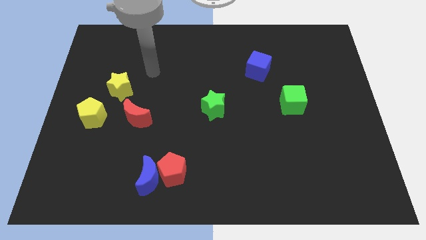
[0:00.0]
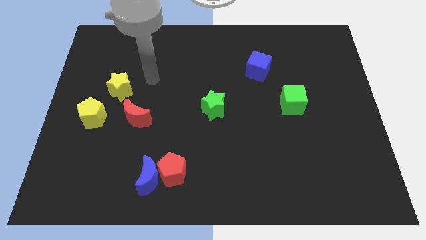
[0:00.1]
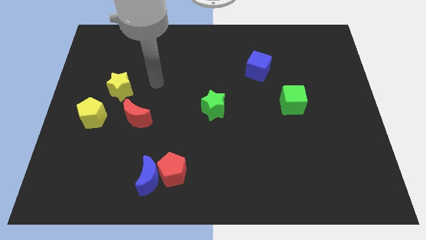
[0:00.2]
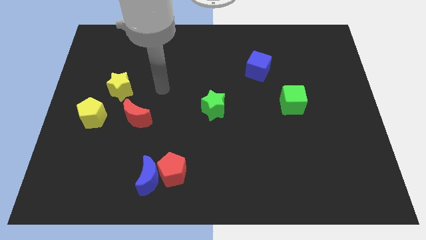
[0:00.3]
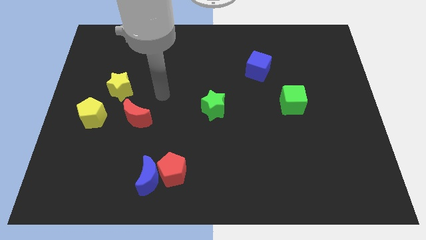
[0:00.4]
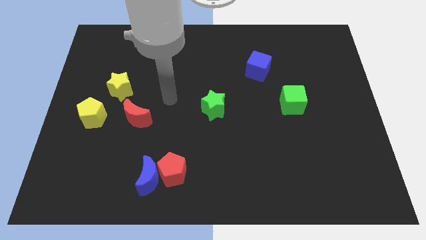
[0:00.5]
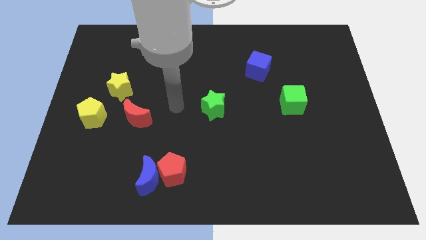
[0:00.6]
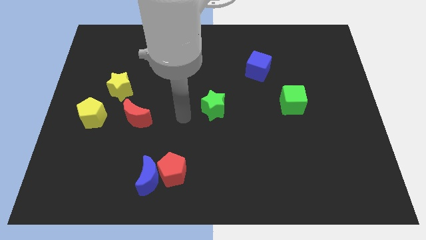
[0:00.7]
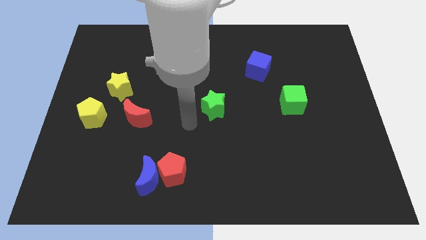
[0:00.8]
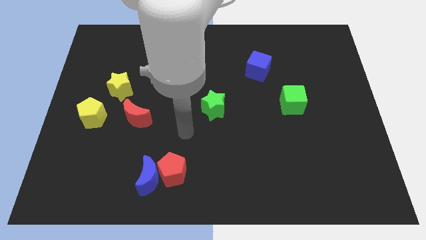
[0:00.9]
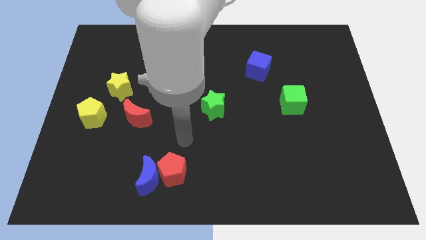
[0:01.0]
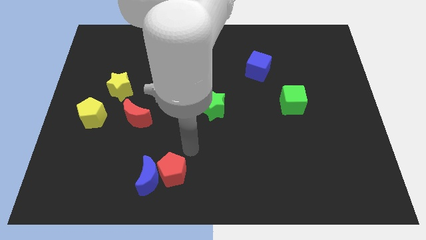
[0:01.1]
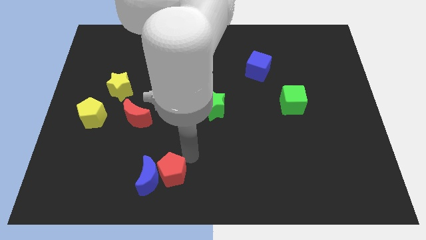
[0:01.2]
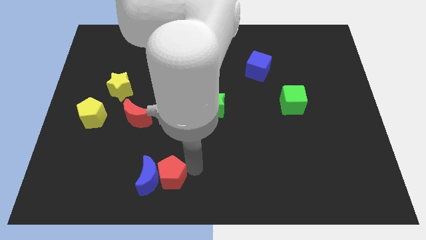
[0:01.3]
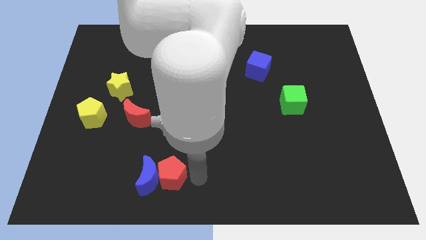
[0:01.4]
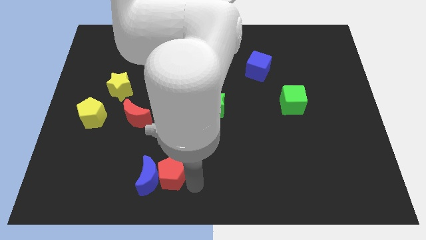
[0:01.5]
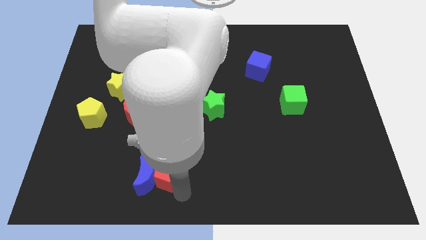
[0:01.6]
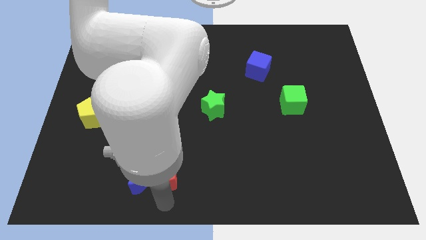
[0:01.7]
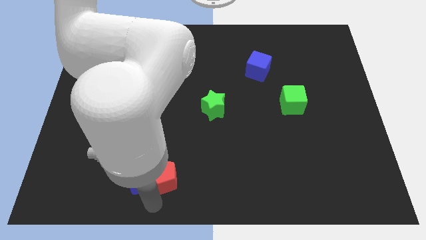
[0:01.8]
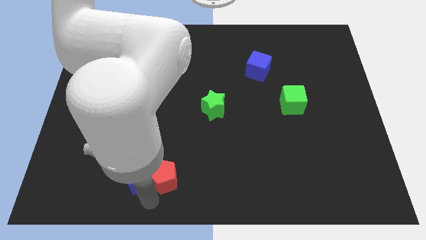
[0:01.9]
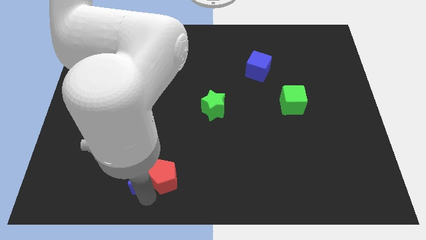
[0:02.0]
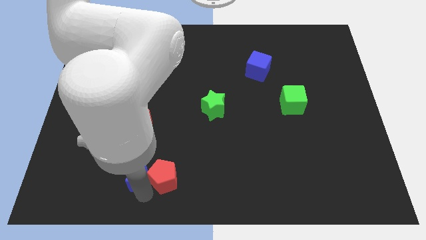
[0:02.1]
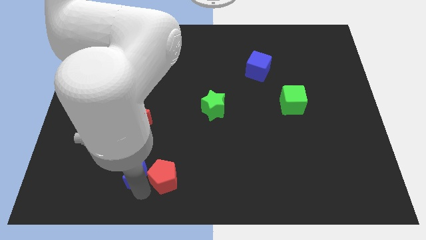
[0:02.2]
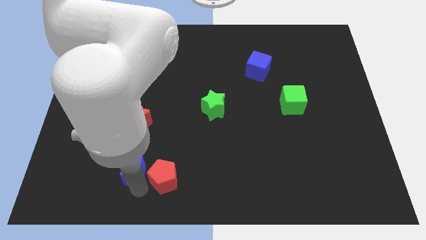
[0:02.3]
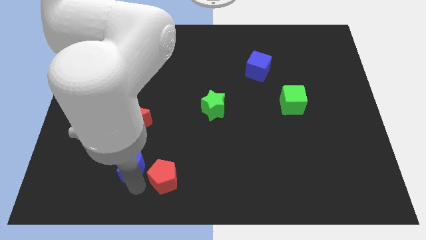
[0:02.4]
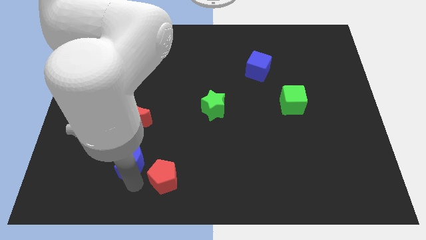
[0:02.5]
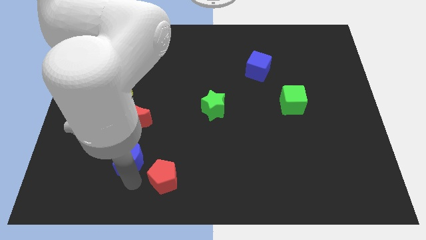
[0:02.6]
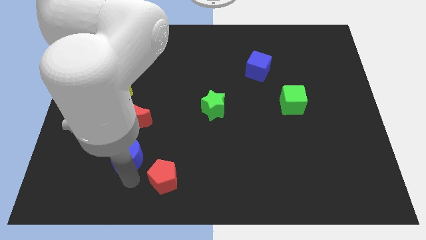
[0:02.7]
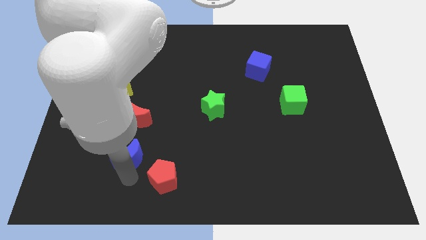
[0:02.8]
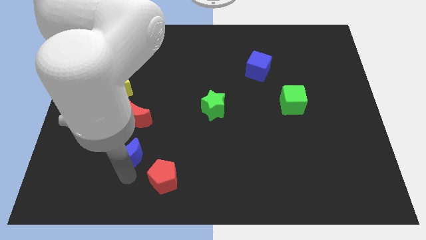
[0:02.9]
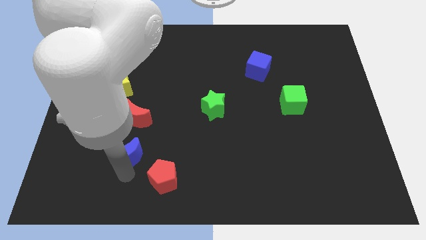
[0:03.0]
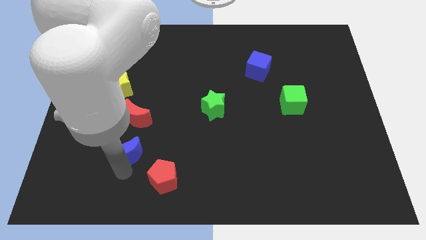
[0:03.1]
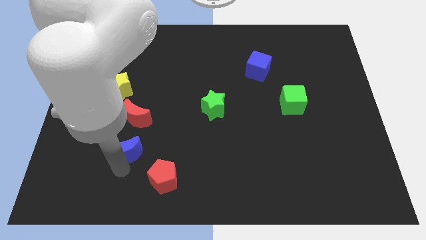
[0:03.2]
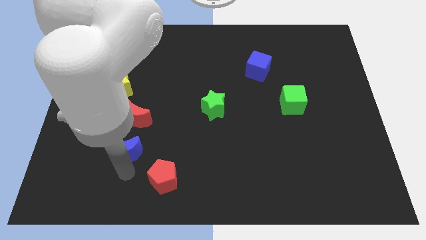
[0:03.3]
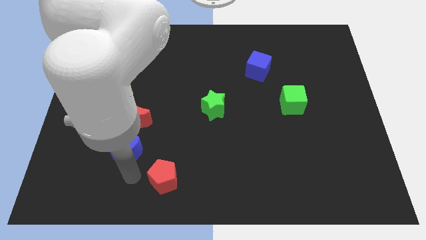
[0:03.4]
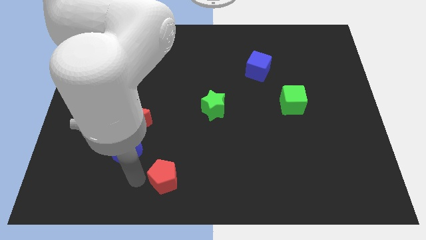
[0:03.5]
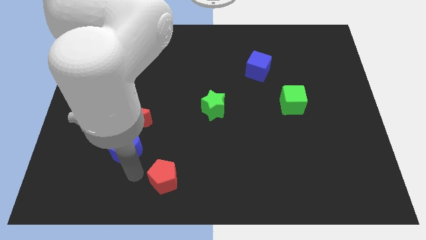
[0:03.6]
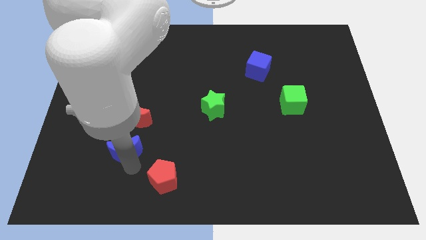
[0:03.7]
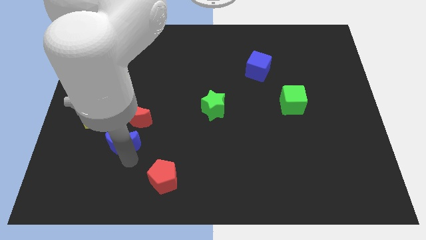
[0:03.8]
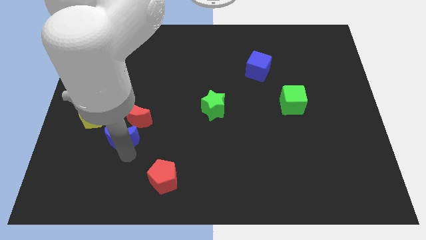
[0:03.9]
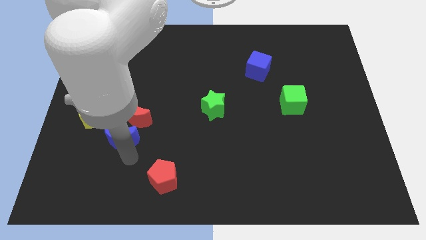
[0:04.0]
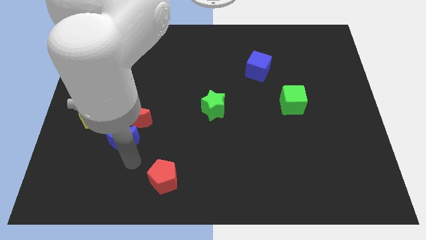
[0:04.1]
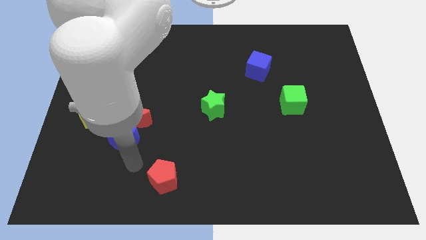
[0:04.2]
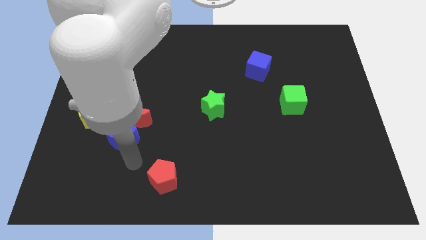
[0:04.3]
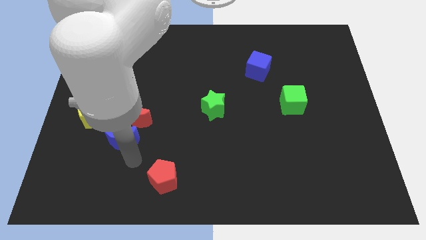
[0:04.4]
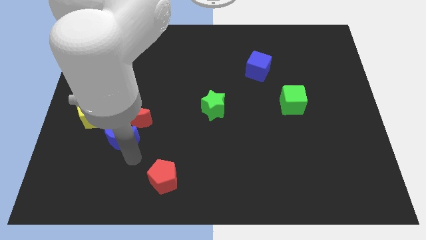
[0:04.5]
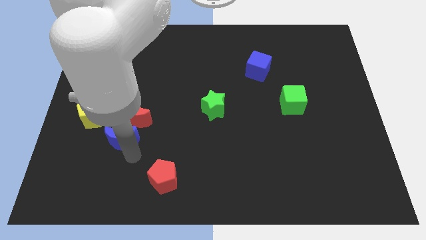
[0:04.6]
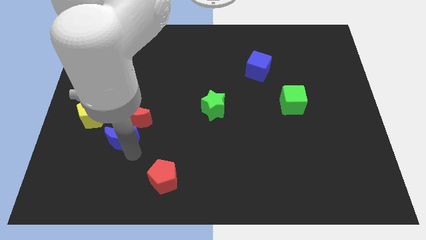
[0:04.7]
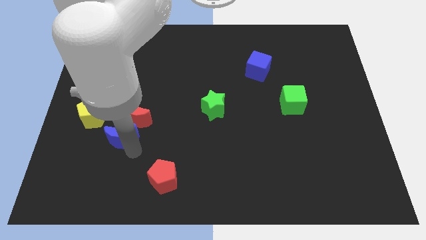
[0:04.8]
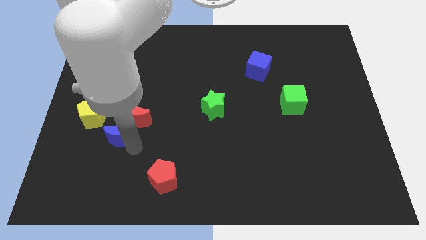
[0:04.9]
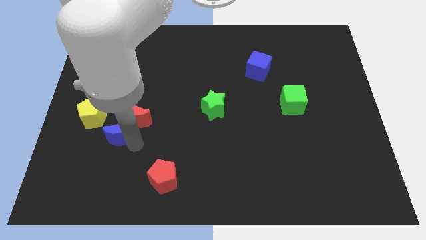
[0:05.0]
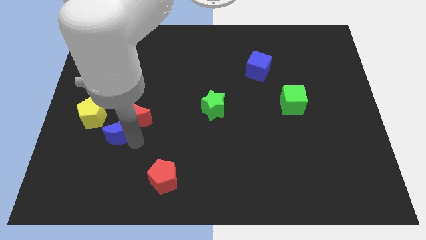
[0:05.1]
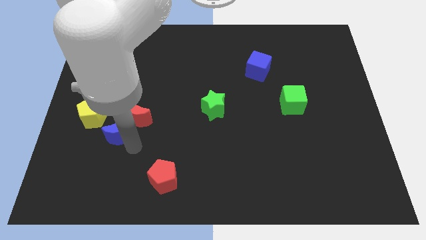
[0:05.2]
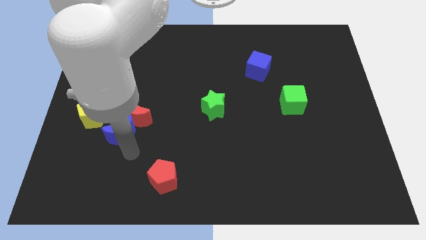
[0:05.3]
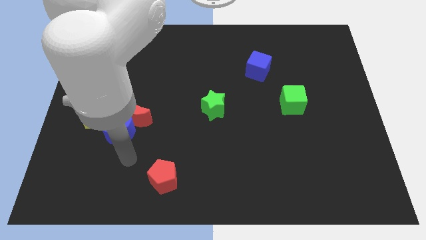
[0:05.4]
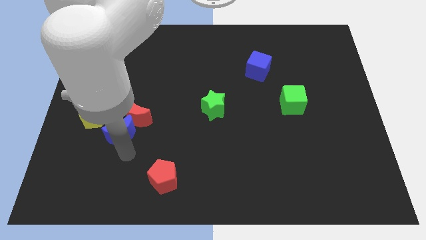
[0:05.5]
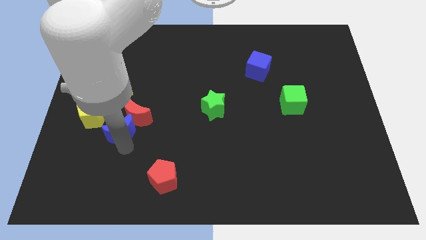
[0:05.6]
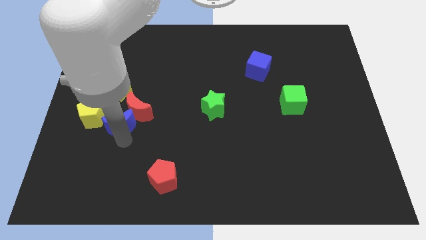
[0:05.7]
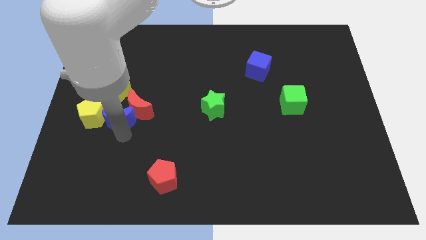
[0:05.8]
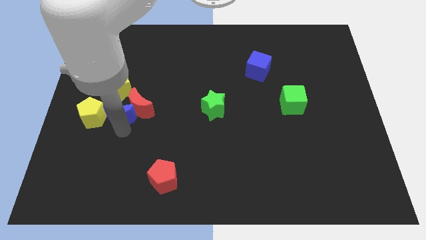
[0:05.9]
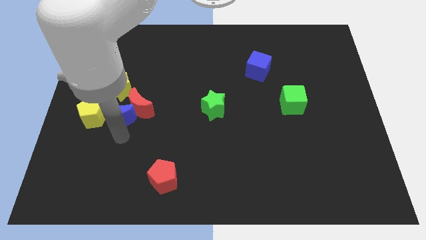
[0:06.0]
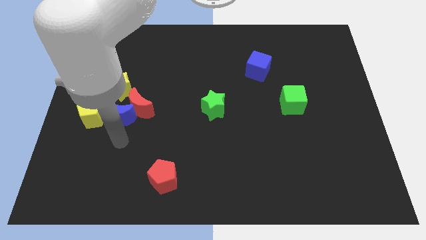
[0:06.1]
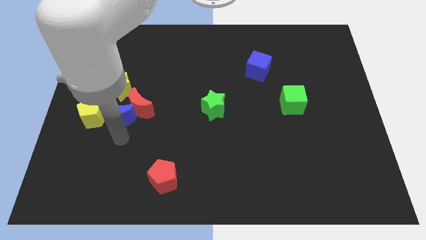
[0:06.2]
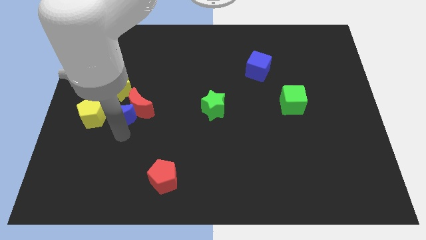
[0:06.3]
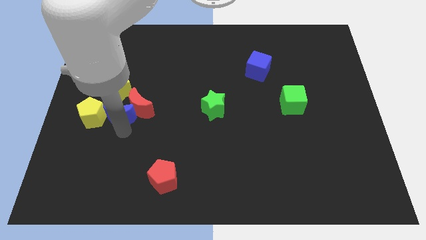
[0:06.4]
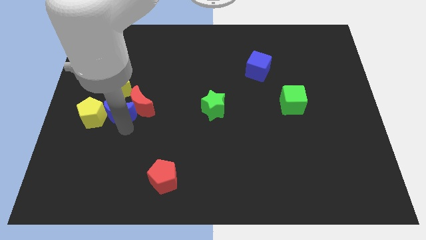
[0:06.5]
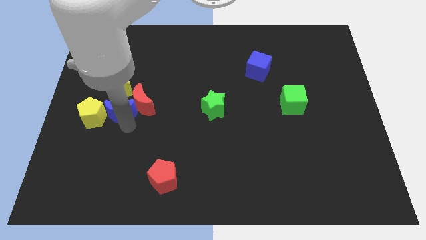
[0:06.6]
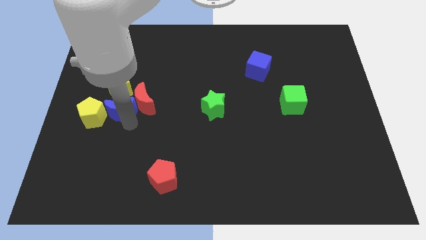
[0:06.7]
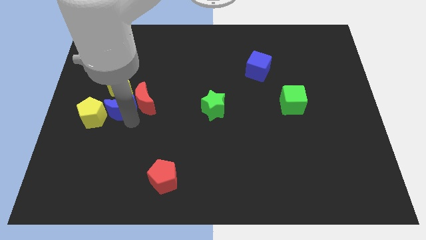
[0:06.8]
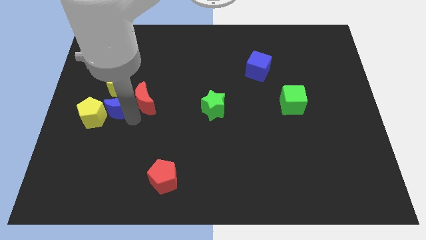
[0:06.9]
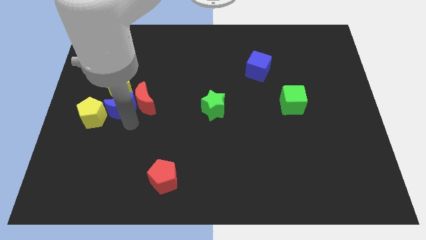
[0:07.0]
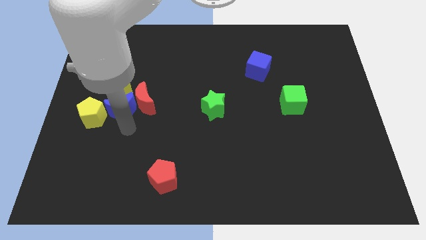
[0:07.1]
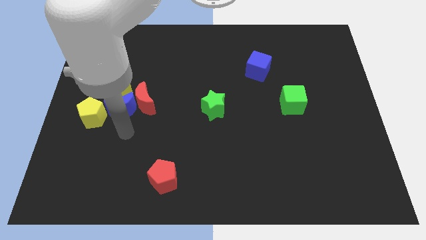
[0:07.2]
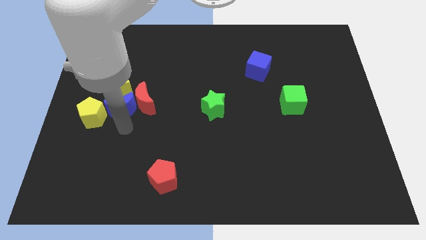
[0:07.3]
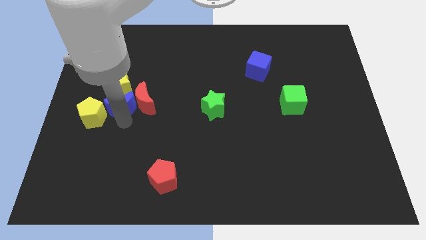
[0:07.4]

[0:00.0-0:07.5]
put the blue moon to the yellow star
